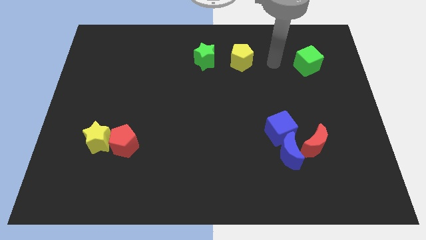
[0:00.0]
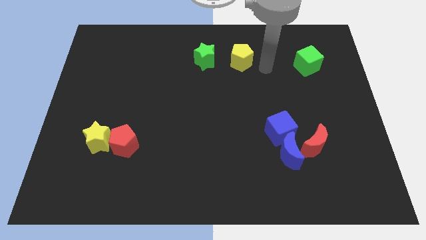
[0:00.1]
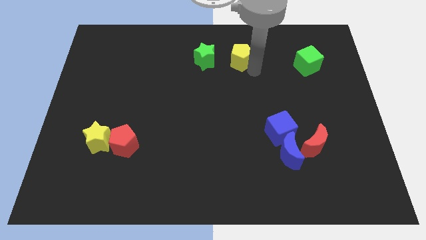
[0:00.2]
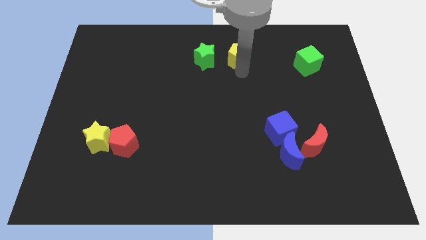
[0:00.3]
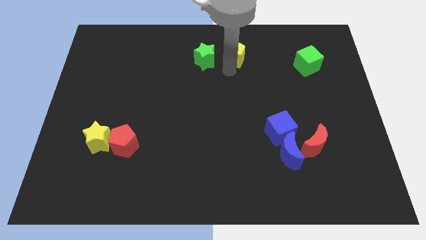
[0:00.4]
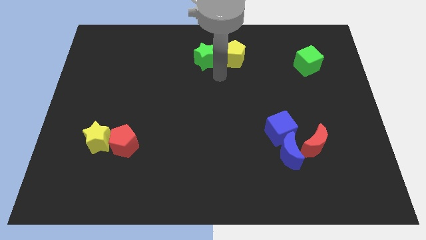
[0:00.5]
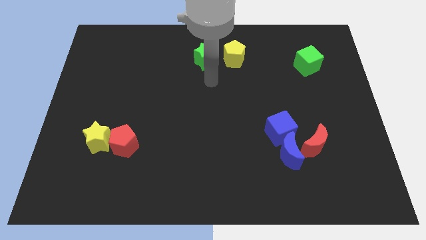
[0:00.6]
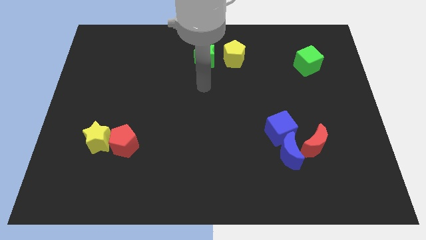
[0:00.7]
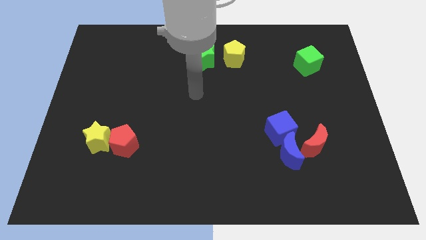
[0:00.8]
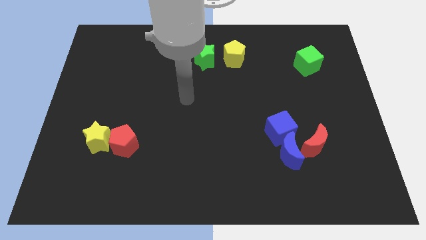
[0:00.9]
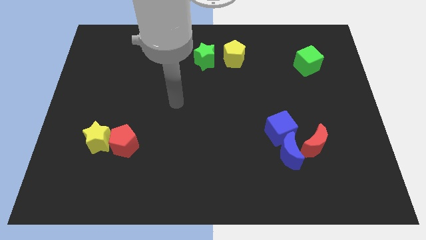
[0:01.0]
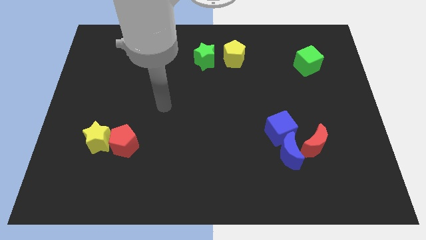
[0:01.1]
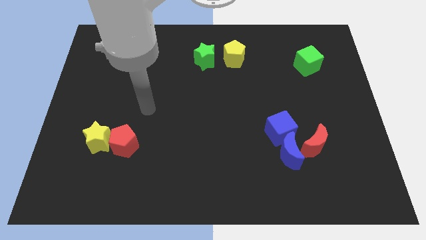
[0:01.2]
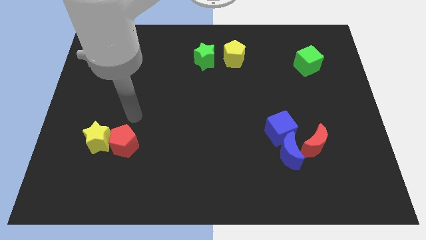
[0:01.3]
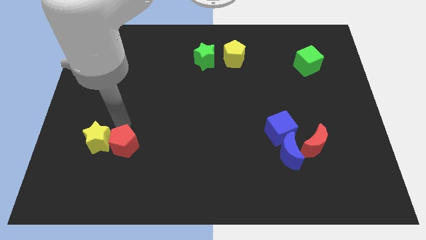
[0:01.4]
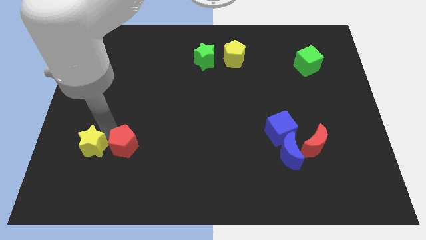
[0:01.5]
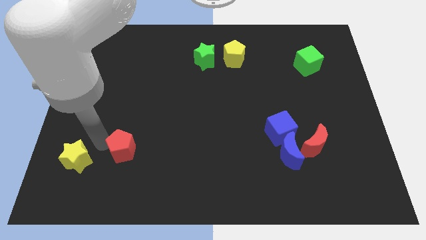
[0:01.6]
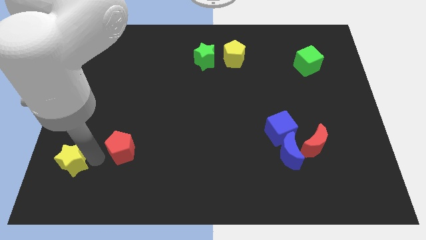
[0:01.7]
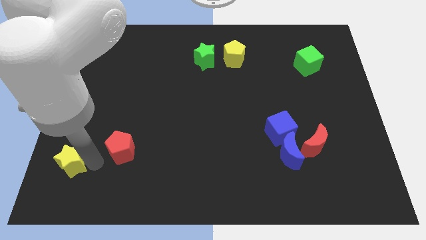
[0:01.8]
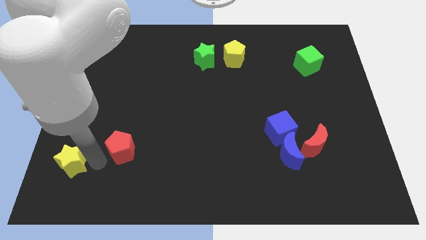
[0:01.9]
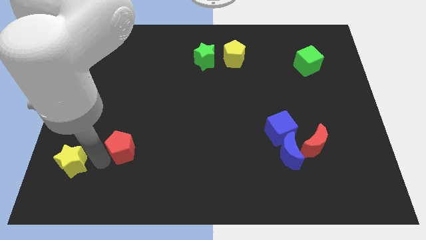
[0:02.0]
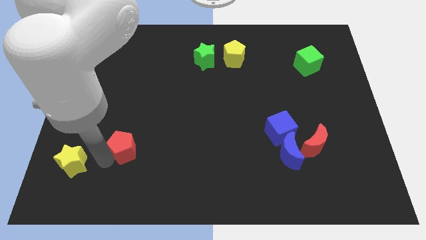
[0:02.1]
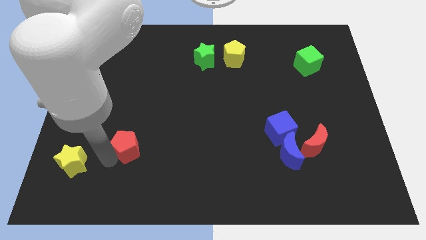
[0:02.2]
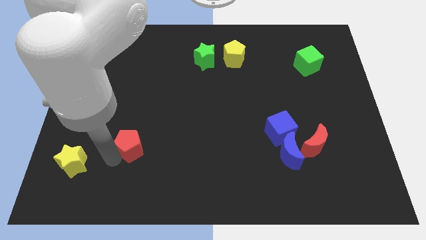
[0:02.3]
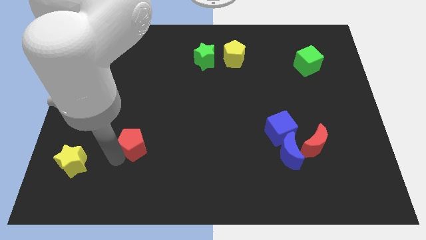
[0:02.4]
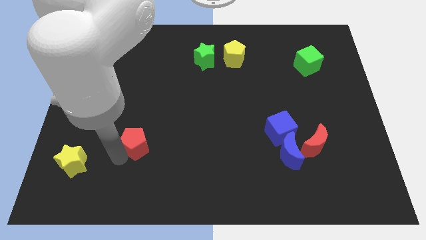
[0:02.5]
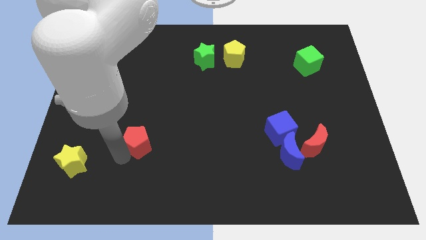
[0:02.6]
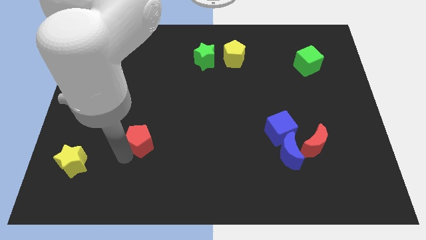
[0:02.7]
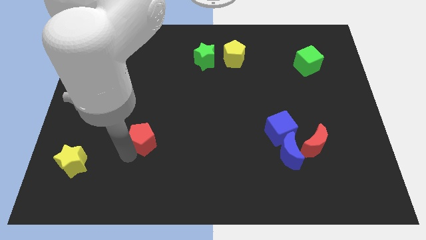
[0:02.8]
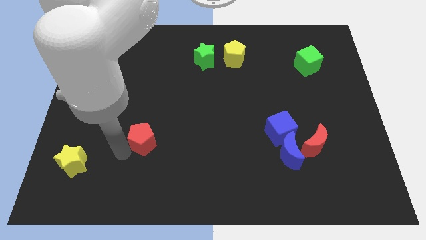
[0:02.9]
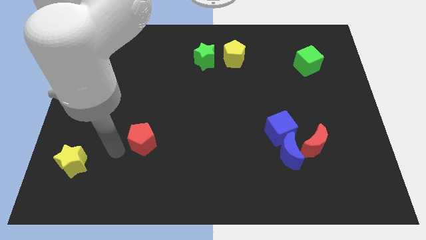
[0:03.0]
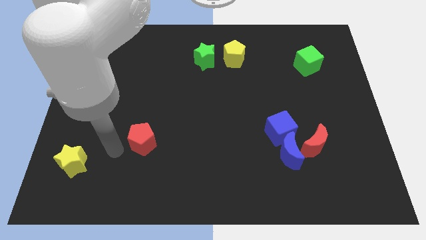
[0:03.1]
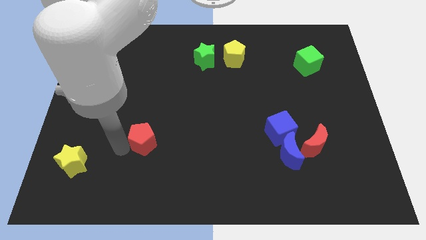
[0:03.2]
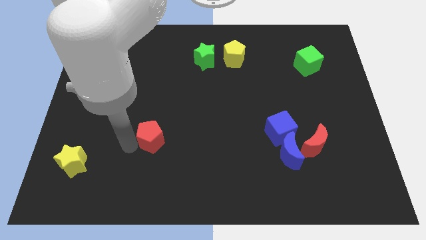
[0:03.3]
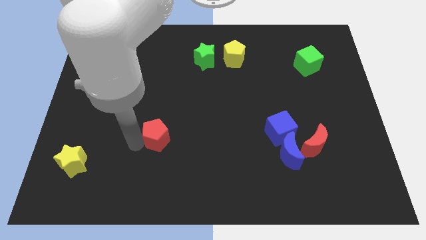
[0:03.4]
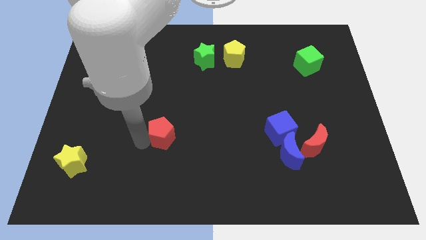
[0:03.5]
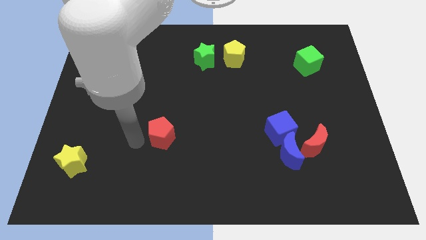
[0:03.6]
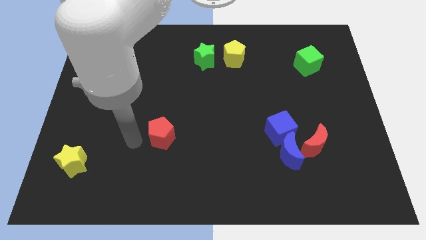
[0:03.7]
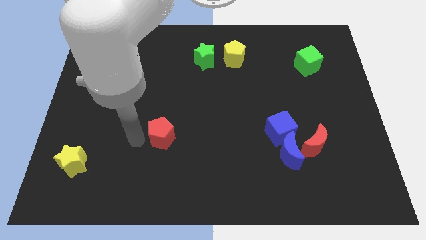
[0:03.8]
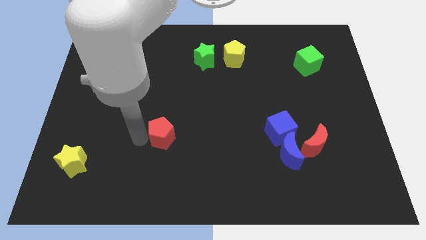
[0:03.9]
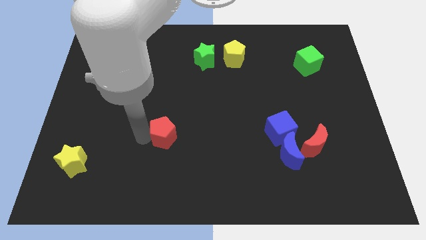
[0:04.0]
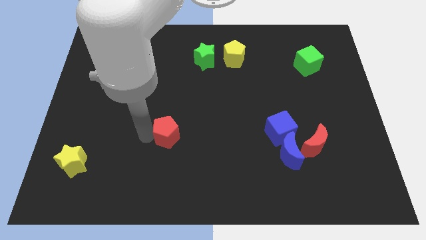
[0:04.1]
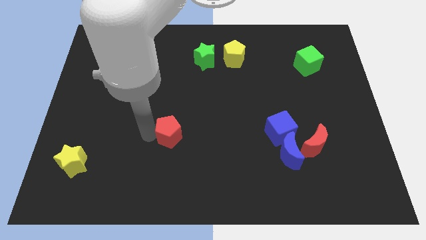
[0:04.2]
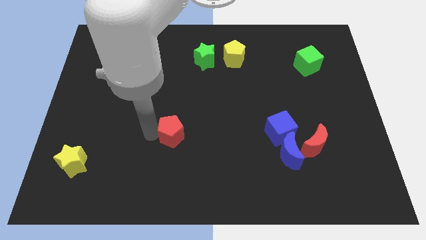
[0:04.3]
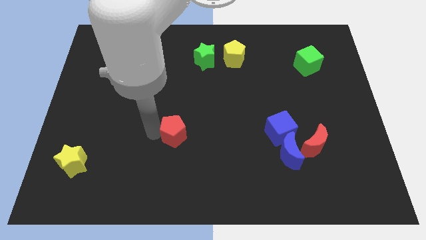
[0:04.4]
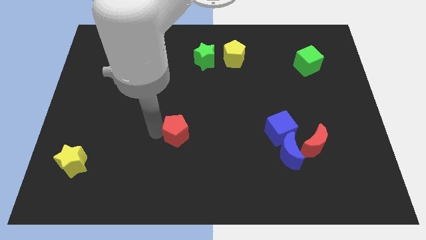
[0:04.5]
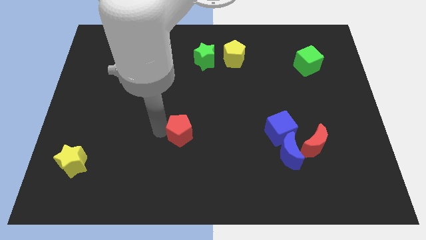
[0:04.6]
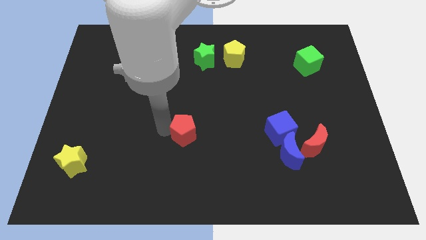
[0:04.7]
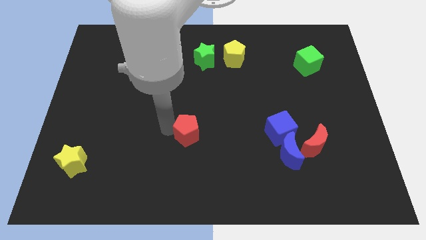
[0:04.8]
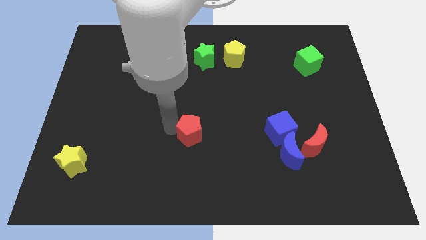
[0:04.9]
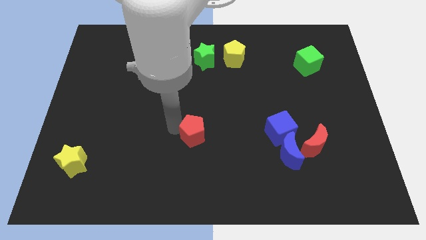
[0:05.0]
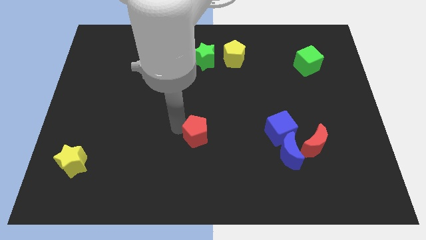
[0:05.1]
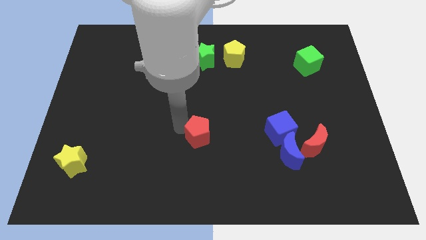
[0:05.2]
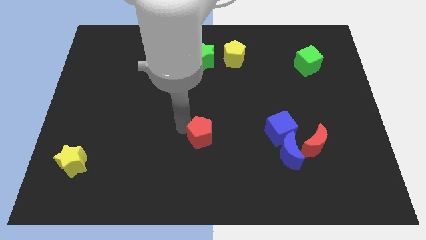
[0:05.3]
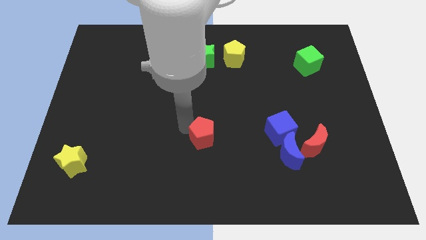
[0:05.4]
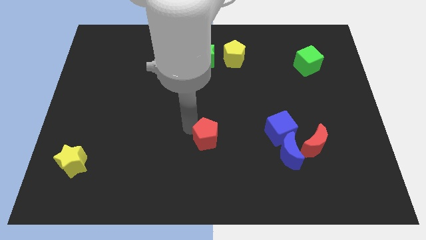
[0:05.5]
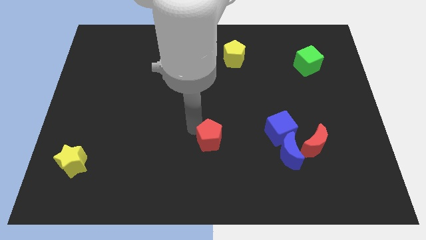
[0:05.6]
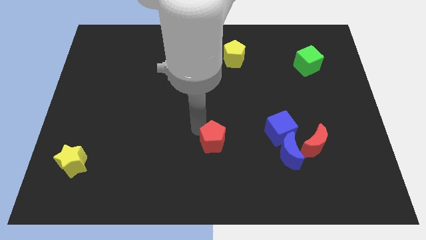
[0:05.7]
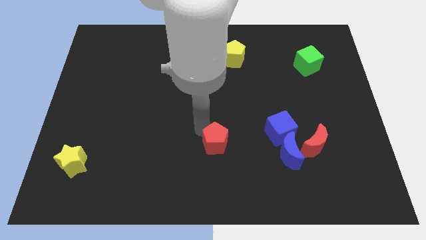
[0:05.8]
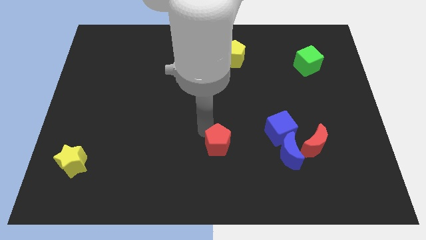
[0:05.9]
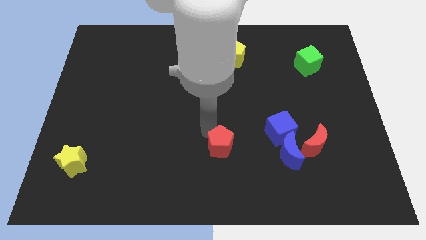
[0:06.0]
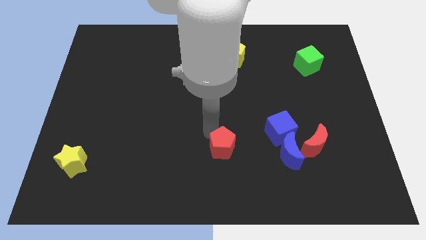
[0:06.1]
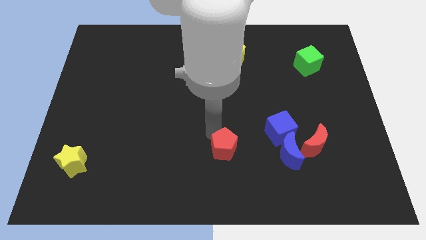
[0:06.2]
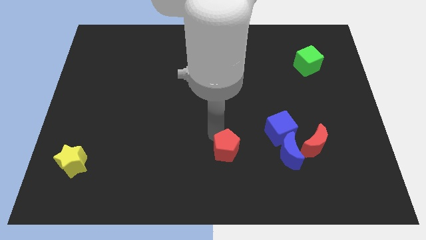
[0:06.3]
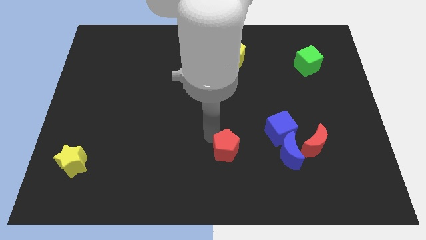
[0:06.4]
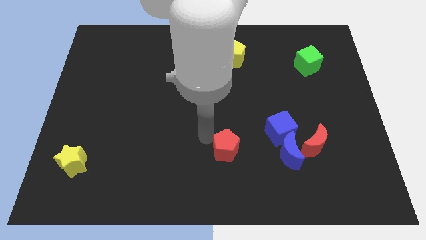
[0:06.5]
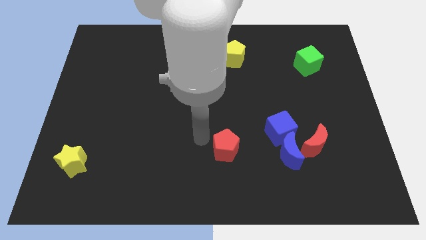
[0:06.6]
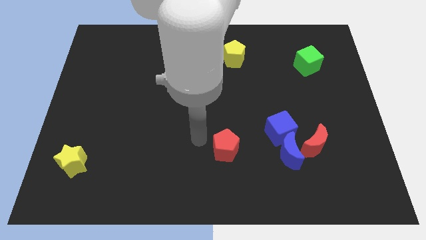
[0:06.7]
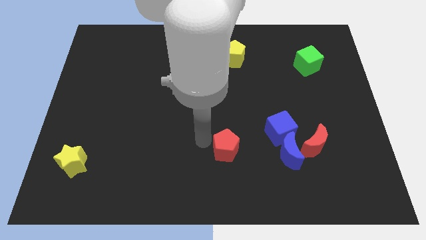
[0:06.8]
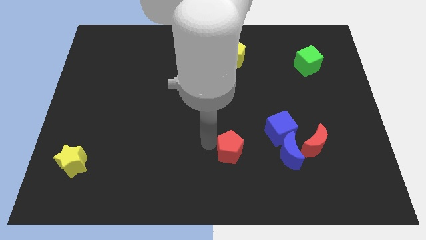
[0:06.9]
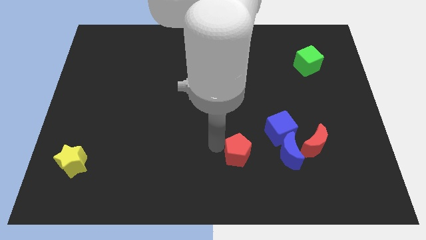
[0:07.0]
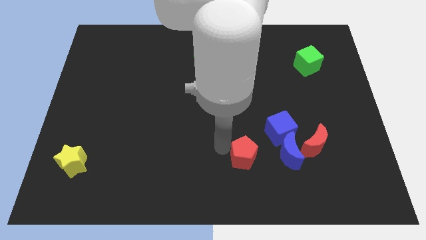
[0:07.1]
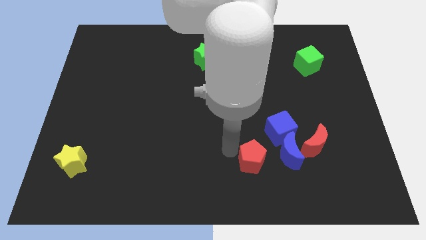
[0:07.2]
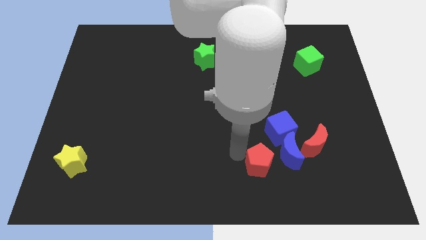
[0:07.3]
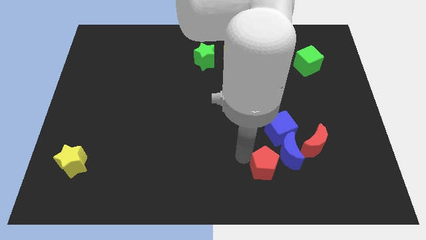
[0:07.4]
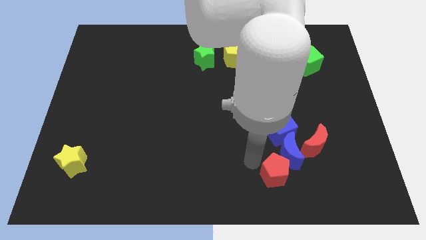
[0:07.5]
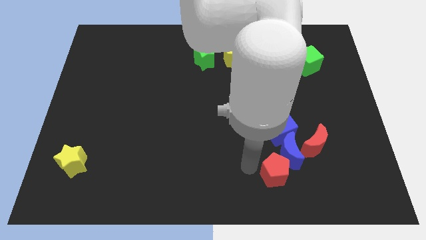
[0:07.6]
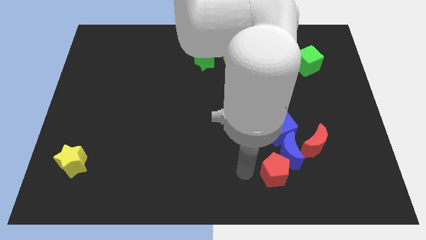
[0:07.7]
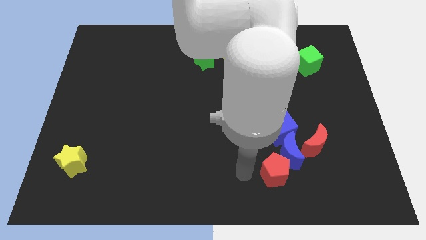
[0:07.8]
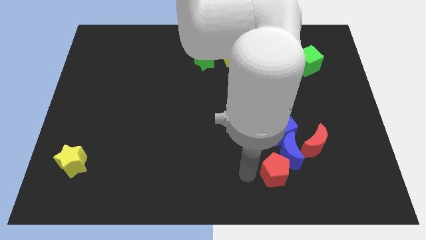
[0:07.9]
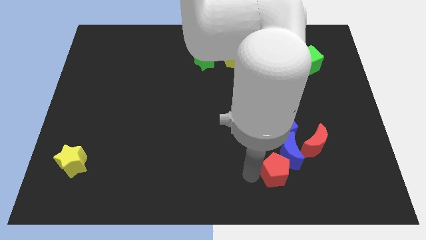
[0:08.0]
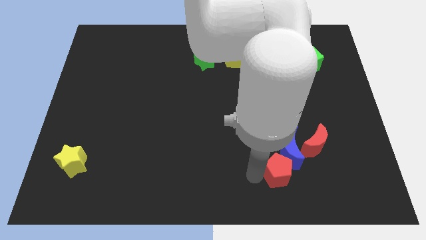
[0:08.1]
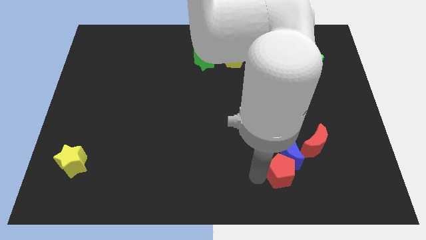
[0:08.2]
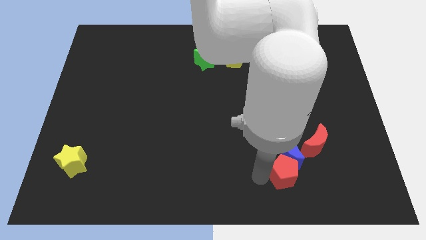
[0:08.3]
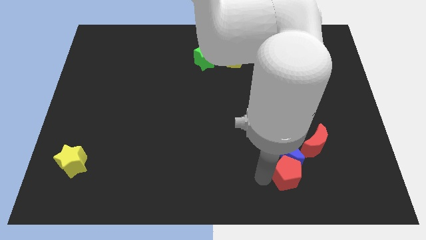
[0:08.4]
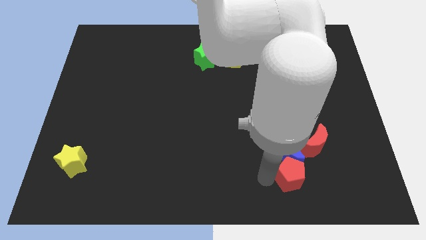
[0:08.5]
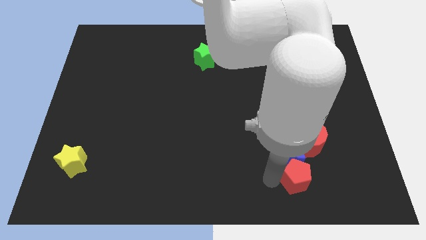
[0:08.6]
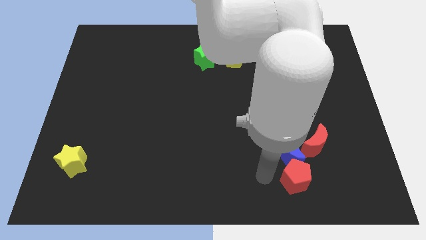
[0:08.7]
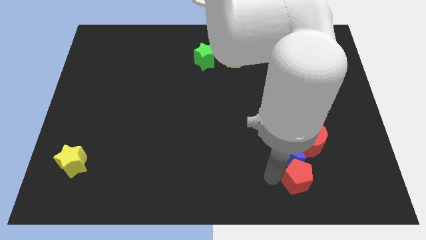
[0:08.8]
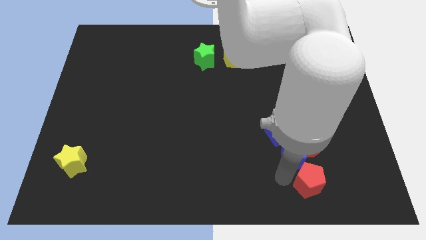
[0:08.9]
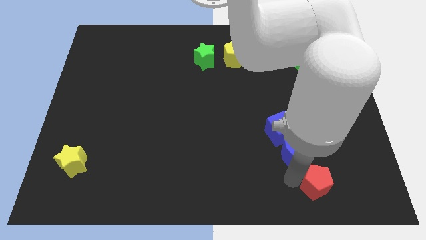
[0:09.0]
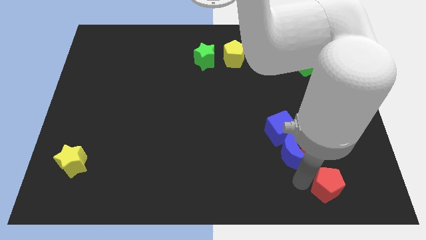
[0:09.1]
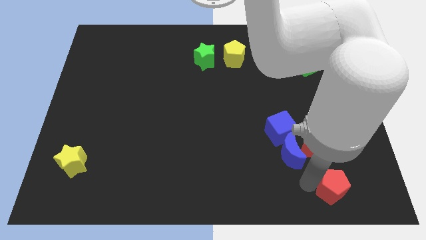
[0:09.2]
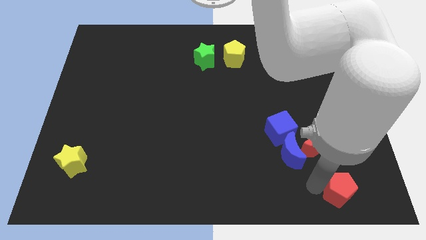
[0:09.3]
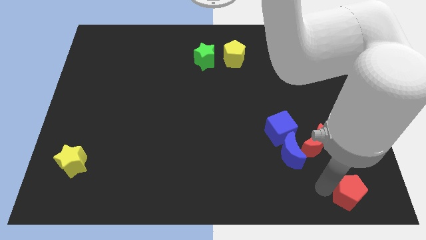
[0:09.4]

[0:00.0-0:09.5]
put the red pentagon to the lower right corner
